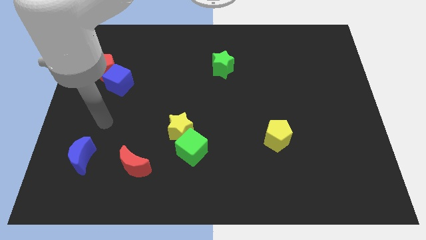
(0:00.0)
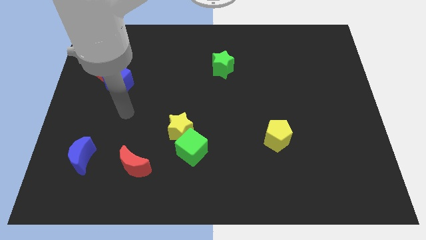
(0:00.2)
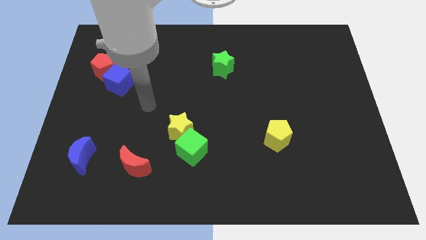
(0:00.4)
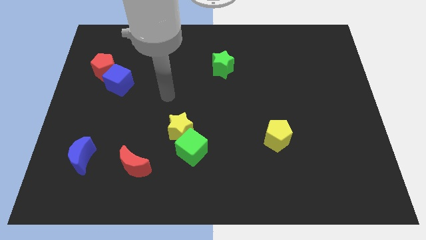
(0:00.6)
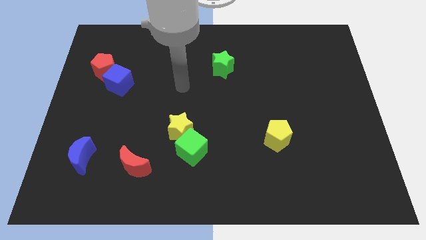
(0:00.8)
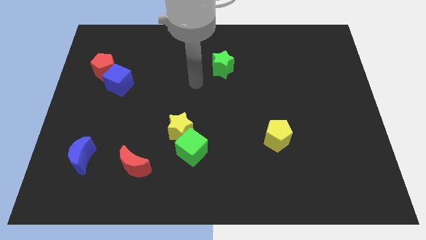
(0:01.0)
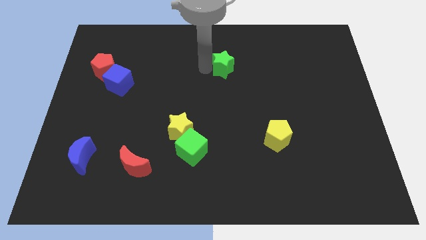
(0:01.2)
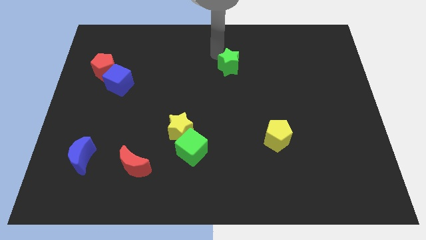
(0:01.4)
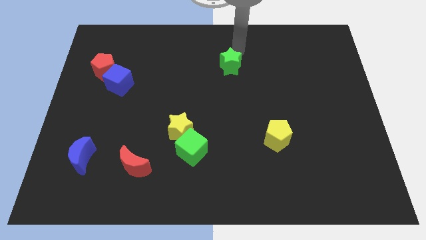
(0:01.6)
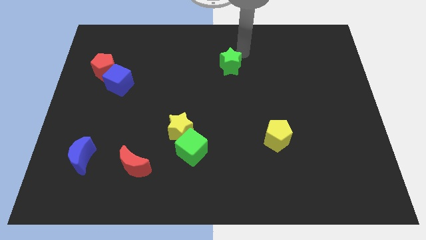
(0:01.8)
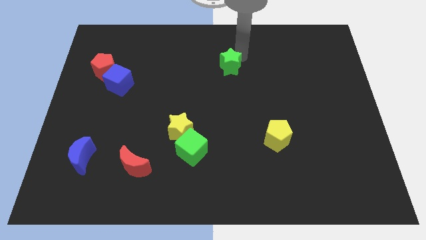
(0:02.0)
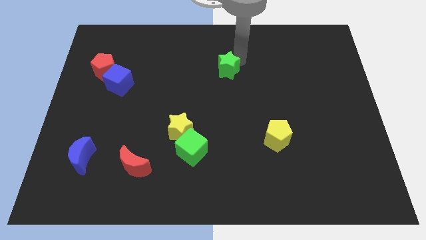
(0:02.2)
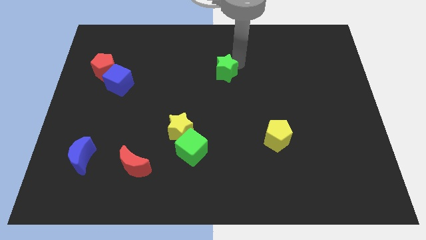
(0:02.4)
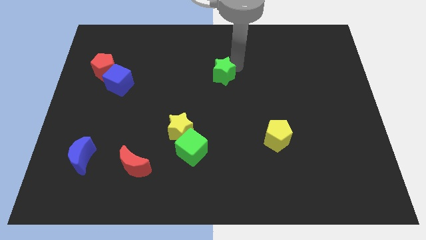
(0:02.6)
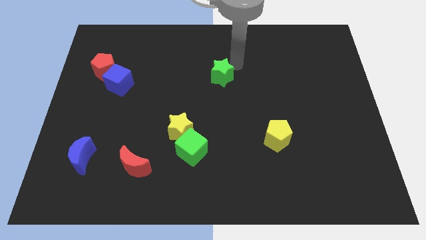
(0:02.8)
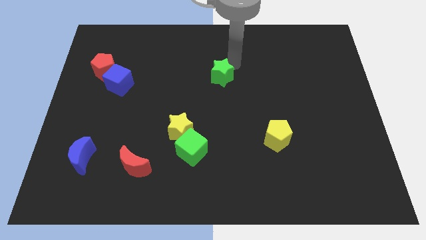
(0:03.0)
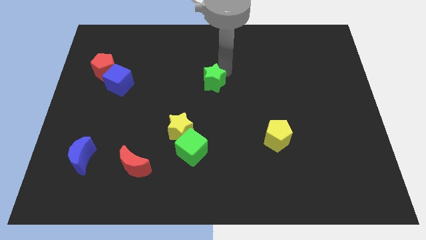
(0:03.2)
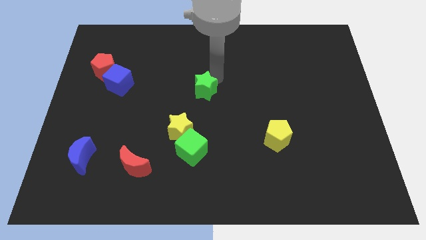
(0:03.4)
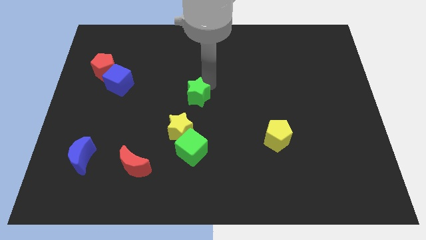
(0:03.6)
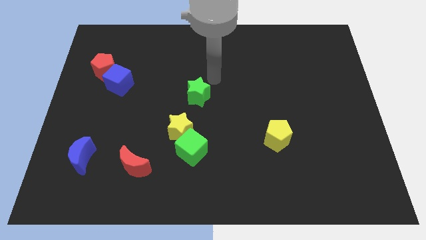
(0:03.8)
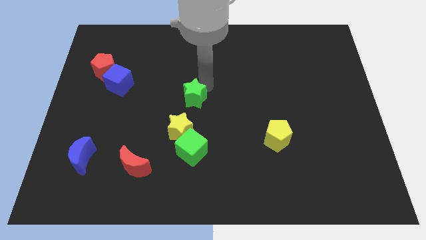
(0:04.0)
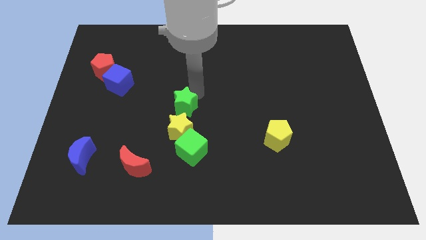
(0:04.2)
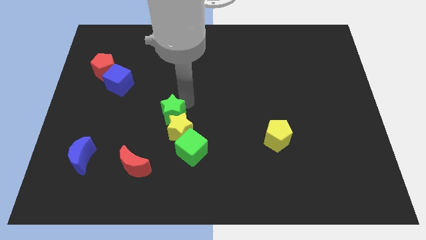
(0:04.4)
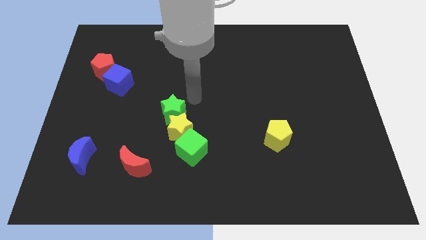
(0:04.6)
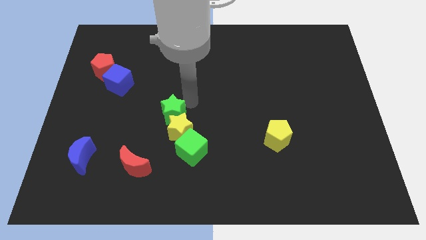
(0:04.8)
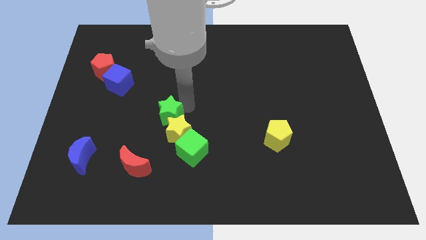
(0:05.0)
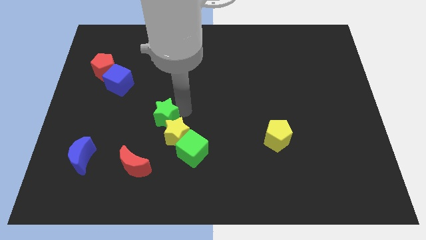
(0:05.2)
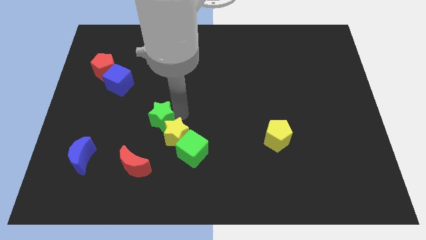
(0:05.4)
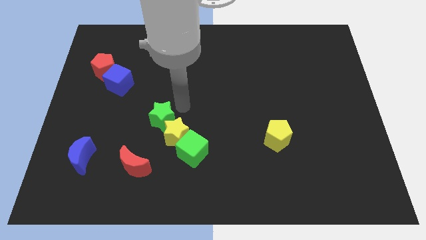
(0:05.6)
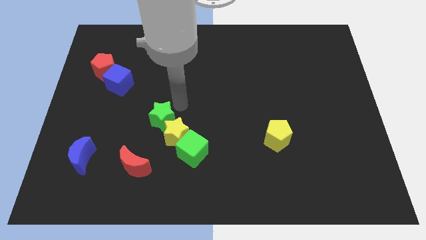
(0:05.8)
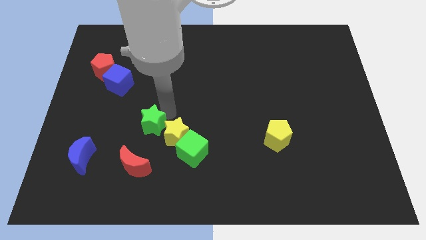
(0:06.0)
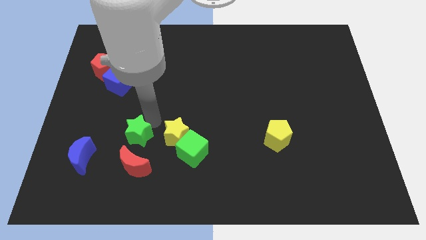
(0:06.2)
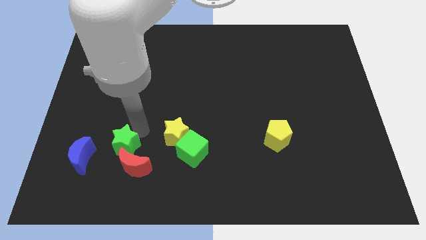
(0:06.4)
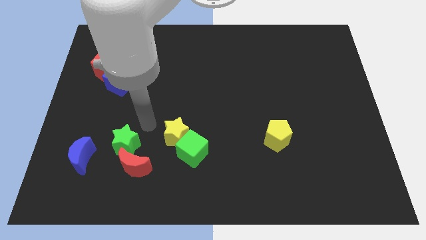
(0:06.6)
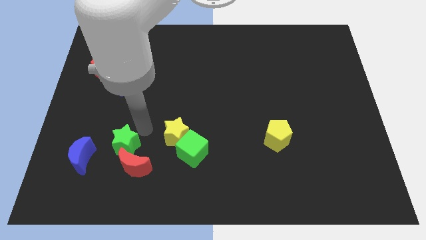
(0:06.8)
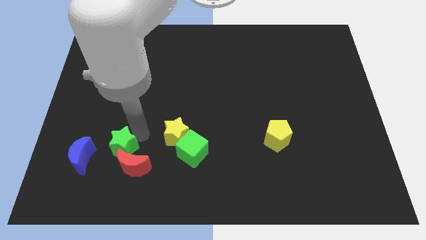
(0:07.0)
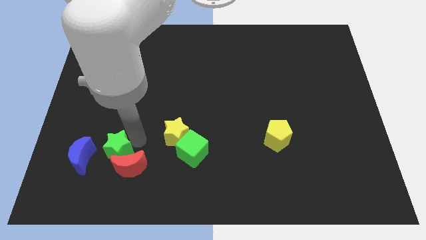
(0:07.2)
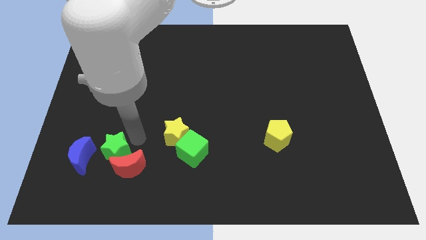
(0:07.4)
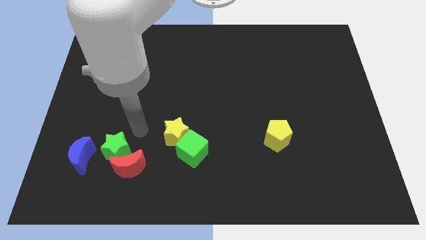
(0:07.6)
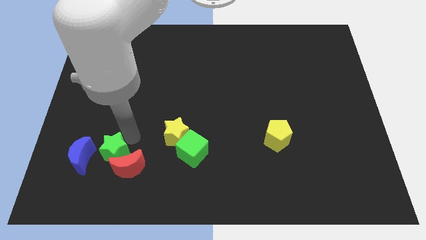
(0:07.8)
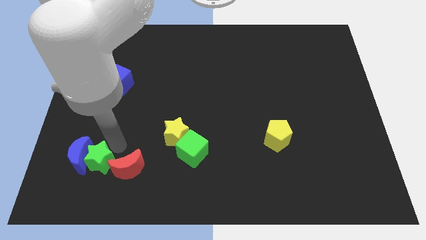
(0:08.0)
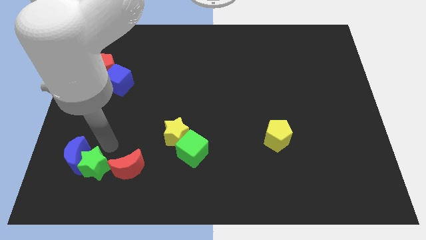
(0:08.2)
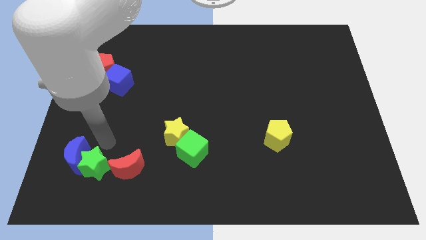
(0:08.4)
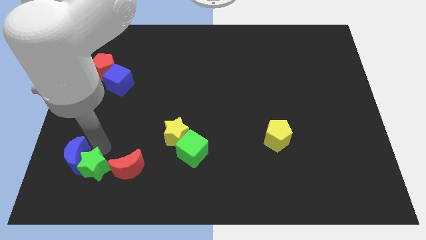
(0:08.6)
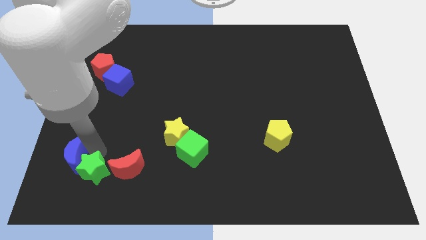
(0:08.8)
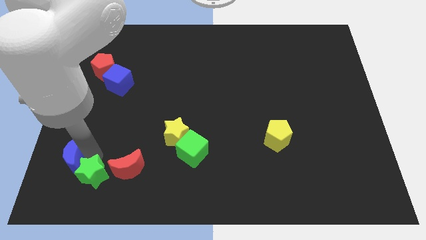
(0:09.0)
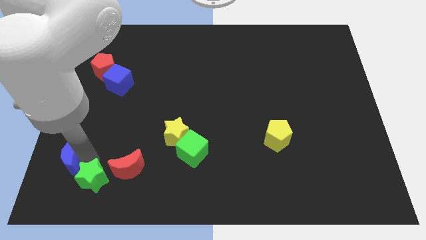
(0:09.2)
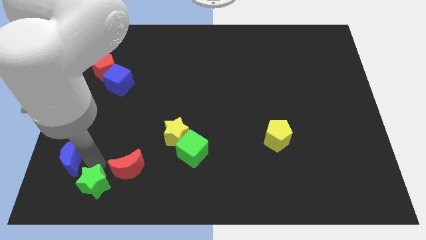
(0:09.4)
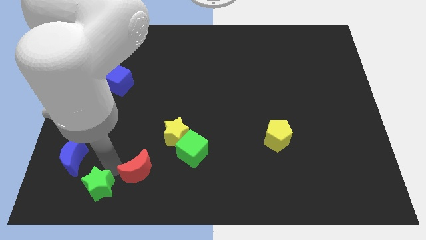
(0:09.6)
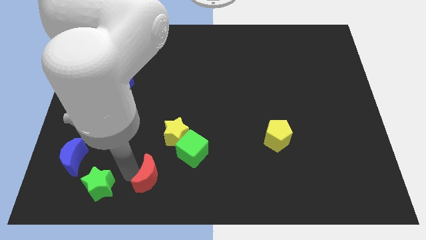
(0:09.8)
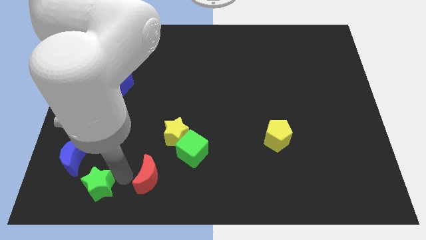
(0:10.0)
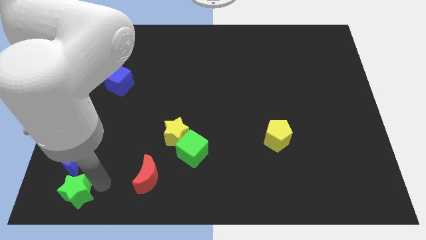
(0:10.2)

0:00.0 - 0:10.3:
push the green star to the bottom left corner

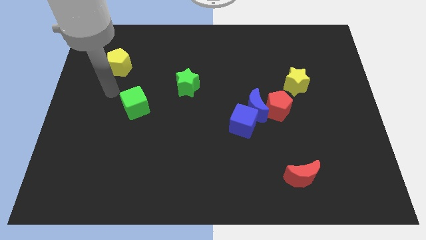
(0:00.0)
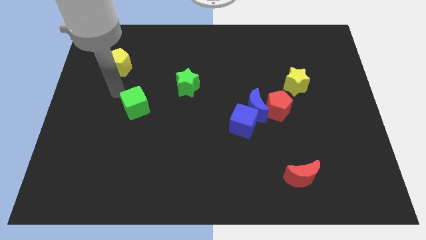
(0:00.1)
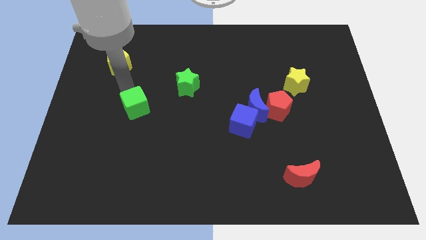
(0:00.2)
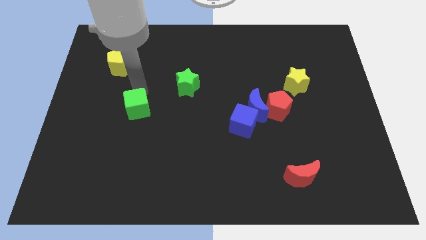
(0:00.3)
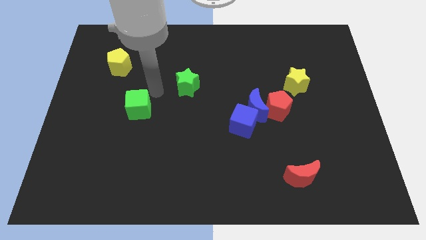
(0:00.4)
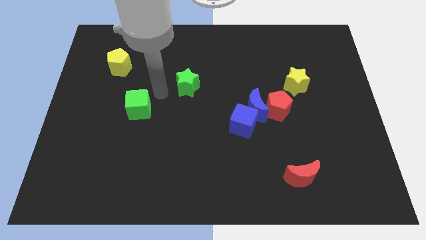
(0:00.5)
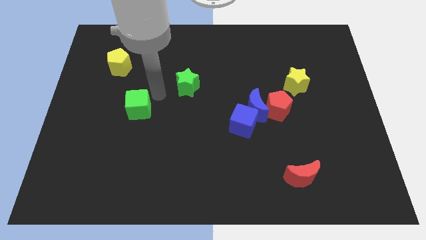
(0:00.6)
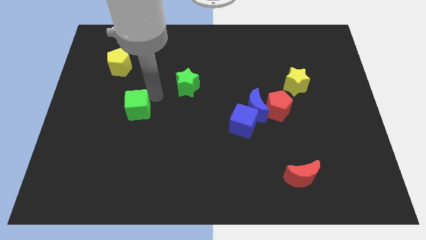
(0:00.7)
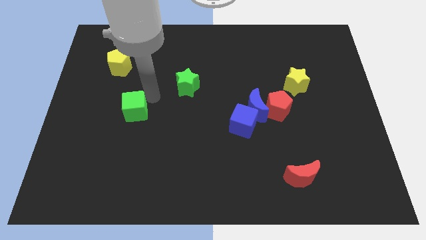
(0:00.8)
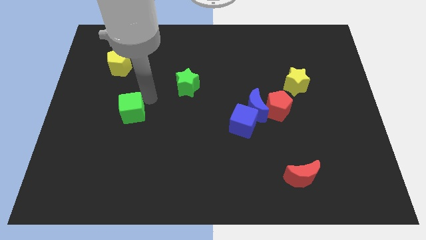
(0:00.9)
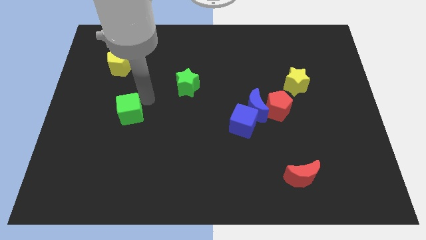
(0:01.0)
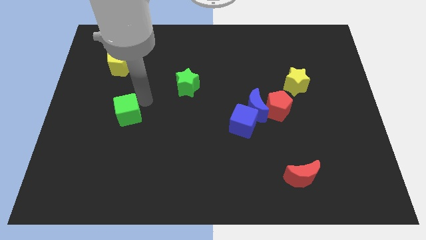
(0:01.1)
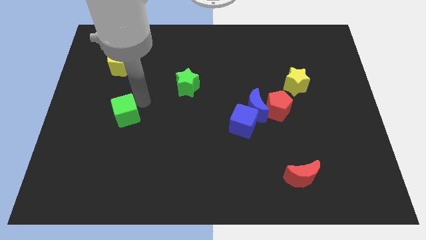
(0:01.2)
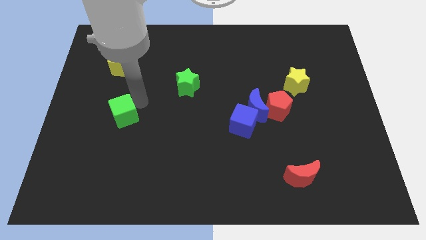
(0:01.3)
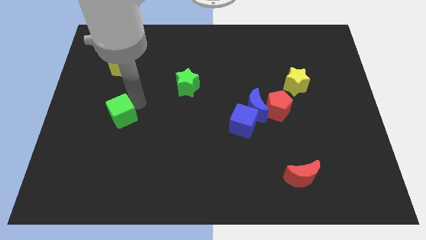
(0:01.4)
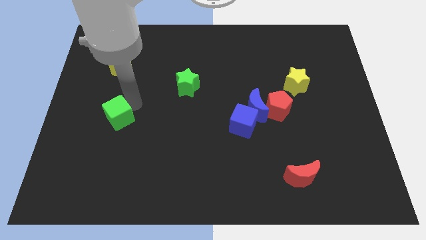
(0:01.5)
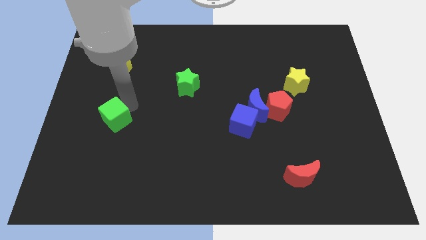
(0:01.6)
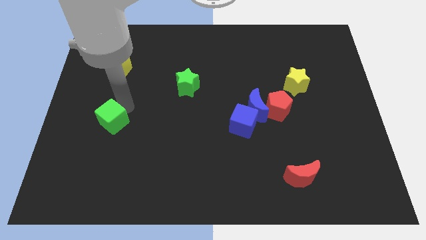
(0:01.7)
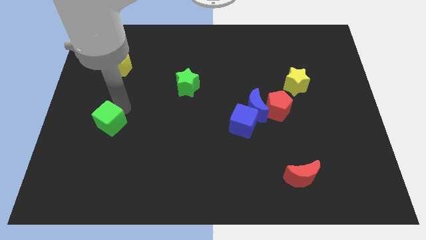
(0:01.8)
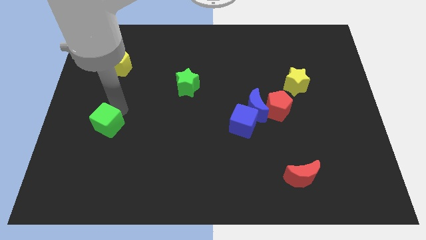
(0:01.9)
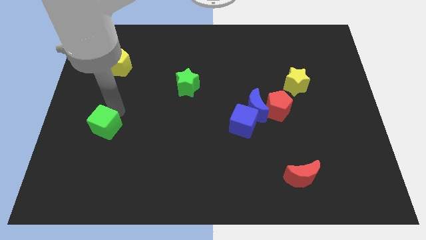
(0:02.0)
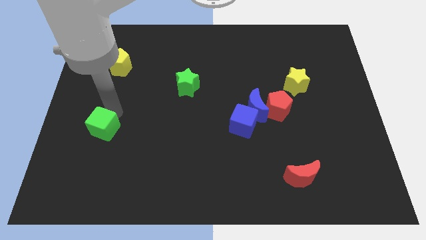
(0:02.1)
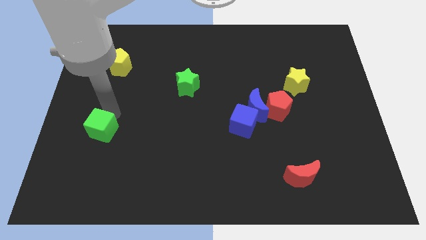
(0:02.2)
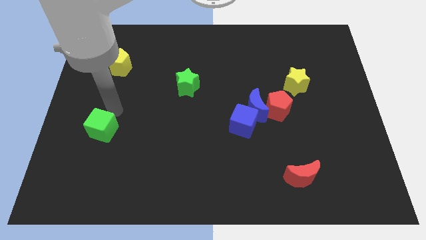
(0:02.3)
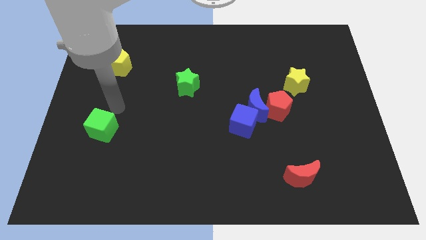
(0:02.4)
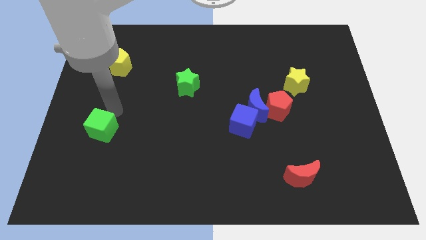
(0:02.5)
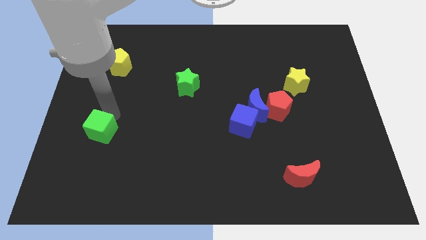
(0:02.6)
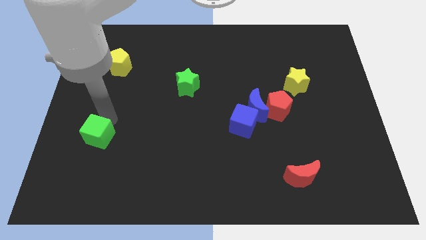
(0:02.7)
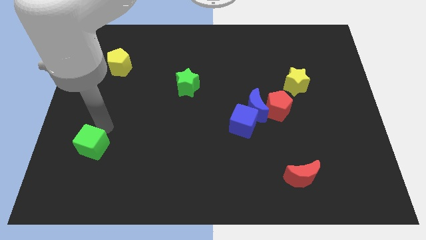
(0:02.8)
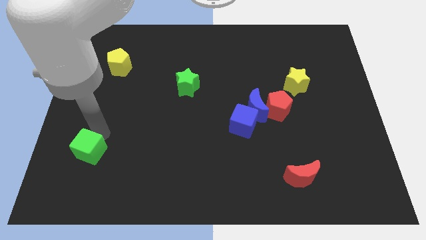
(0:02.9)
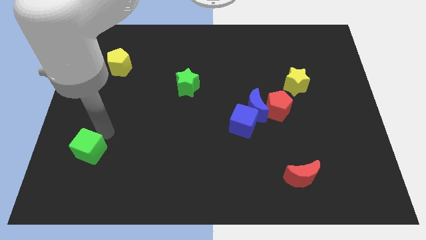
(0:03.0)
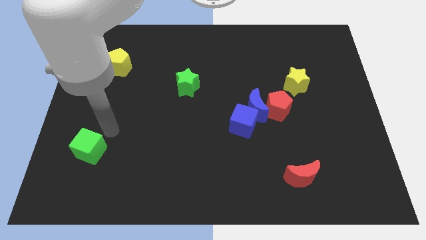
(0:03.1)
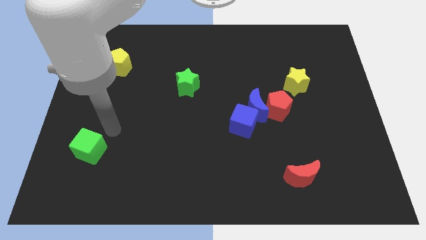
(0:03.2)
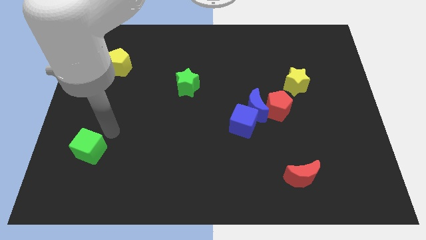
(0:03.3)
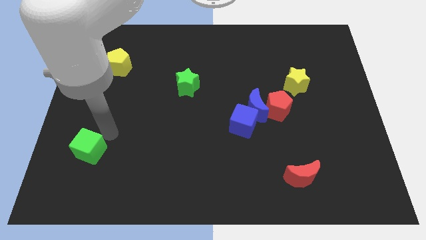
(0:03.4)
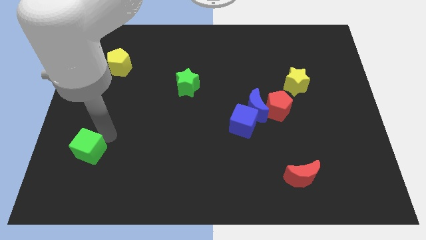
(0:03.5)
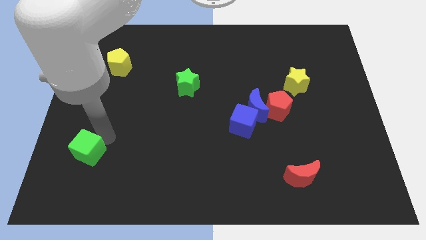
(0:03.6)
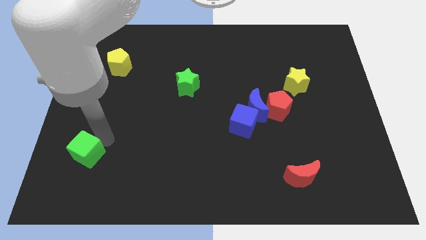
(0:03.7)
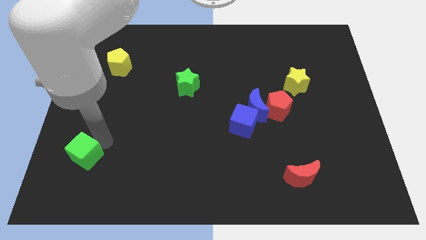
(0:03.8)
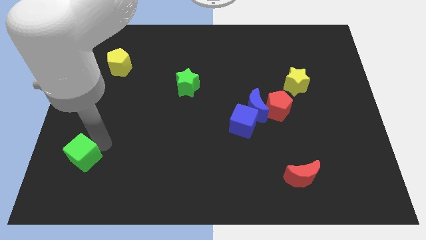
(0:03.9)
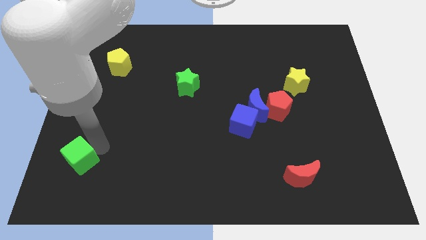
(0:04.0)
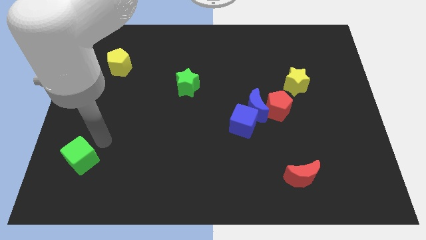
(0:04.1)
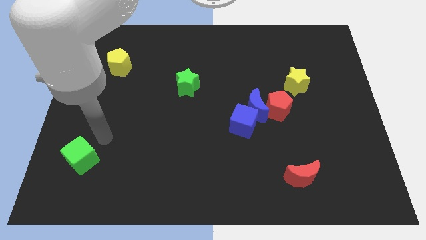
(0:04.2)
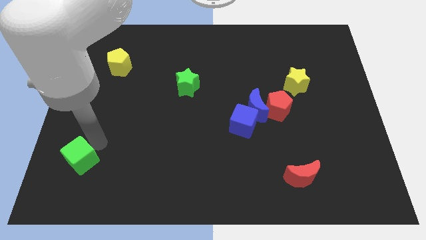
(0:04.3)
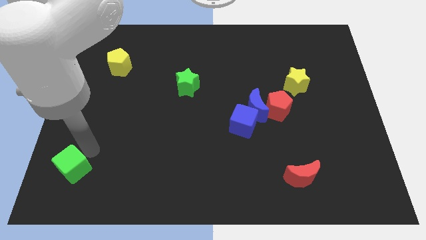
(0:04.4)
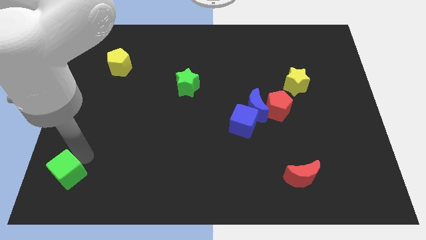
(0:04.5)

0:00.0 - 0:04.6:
move the green cube to the bottom left corner
